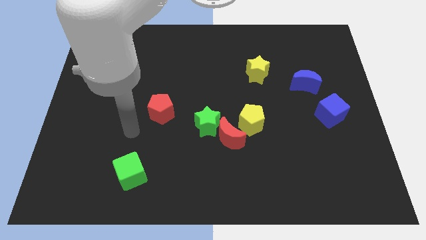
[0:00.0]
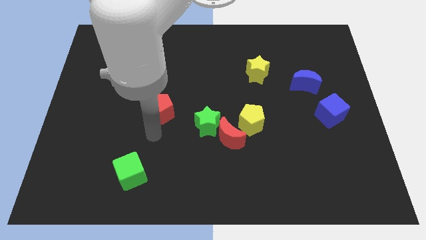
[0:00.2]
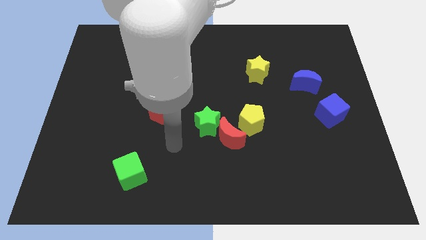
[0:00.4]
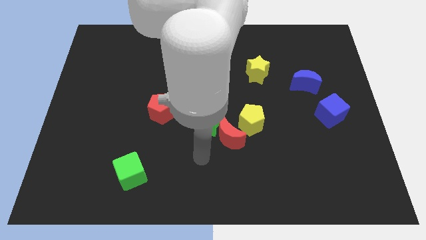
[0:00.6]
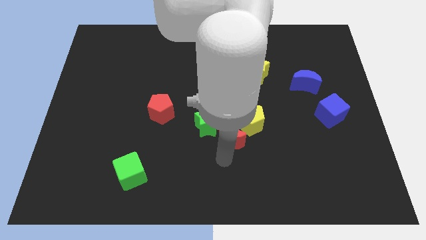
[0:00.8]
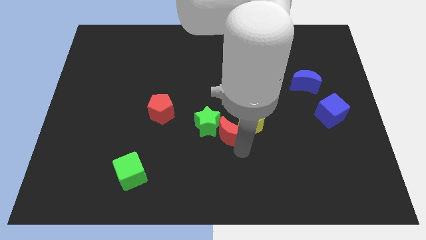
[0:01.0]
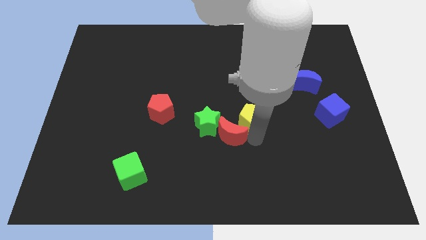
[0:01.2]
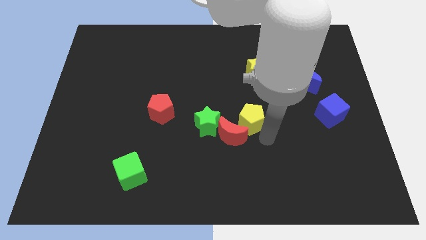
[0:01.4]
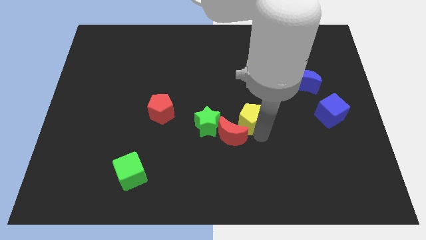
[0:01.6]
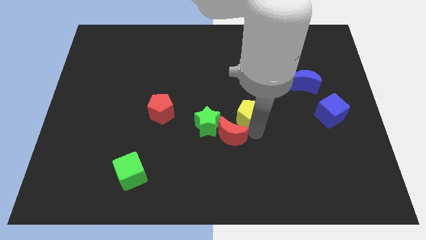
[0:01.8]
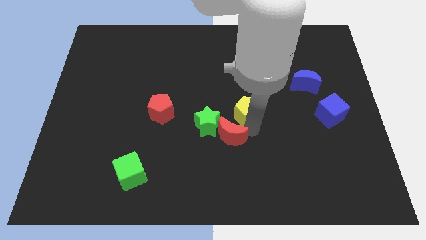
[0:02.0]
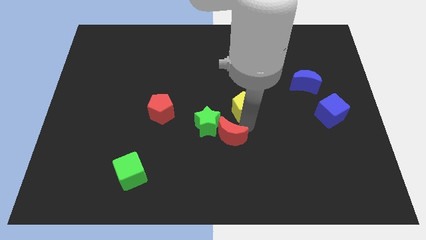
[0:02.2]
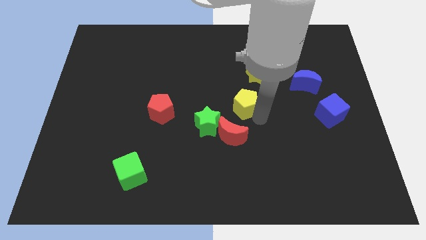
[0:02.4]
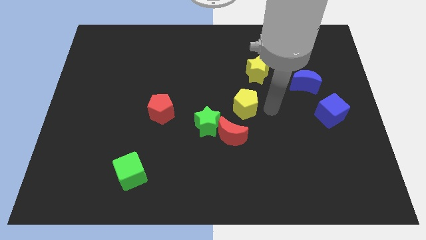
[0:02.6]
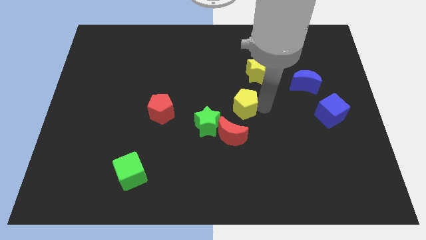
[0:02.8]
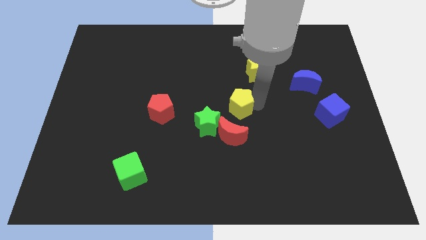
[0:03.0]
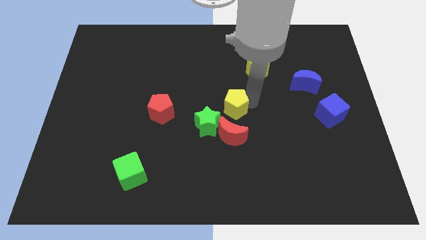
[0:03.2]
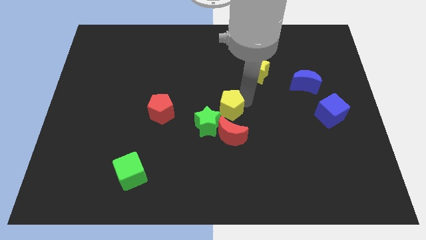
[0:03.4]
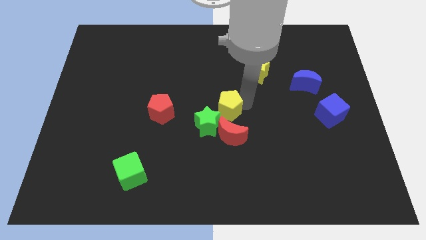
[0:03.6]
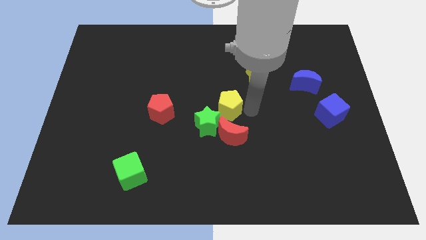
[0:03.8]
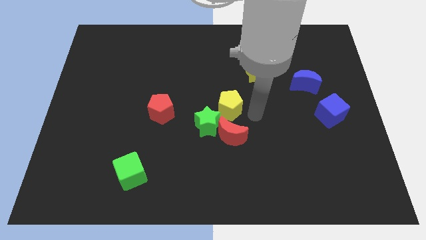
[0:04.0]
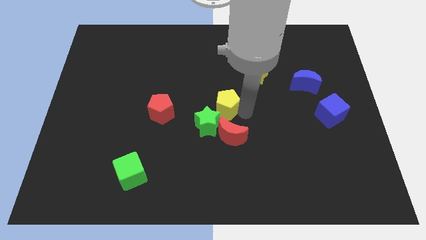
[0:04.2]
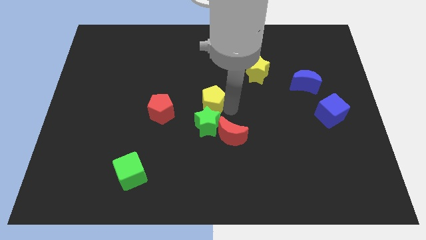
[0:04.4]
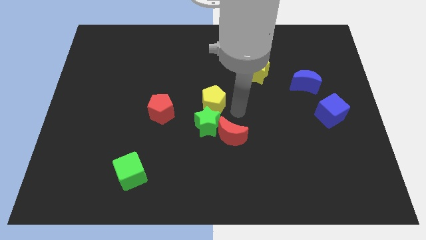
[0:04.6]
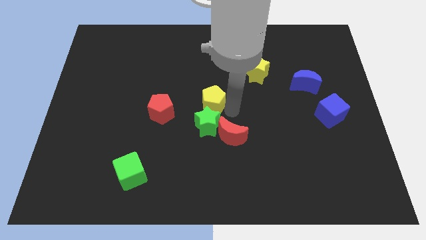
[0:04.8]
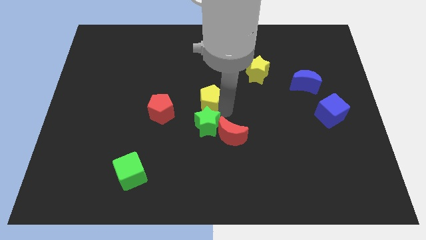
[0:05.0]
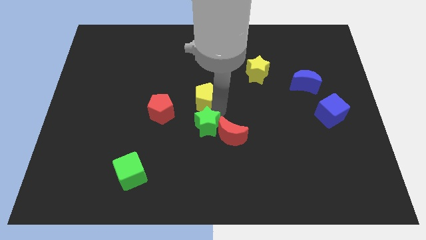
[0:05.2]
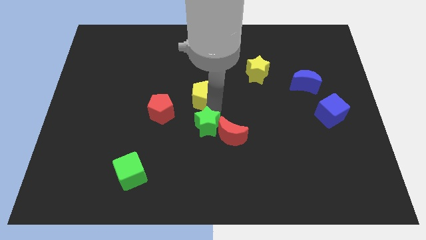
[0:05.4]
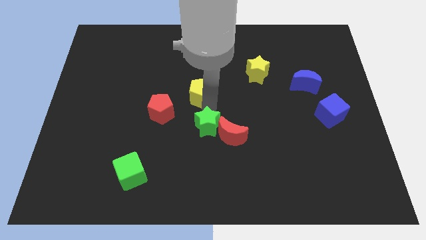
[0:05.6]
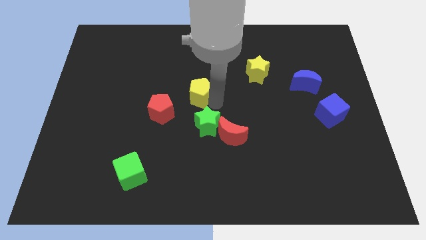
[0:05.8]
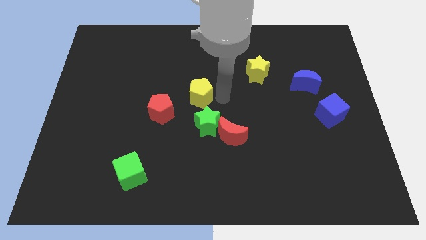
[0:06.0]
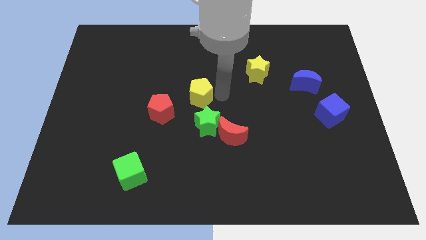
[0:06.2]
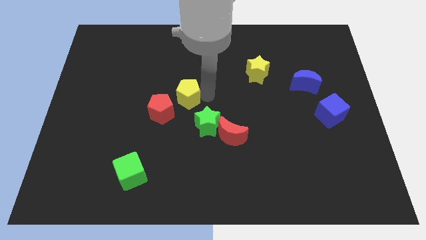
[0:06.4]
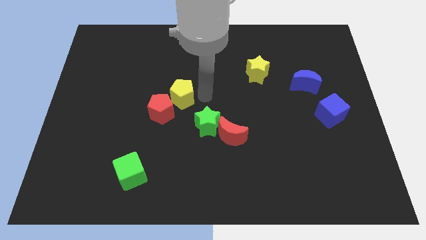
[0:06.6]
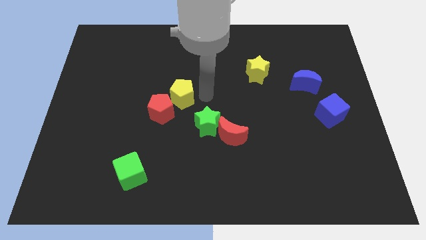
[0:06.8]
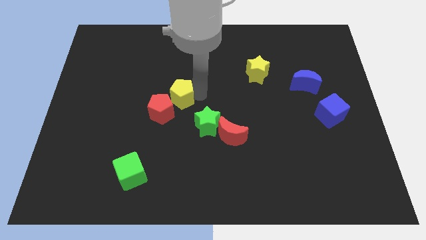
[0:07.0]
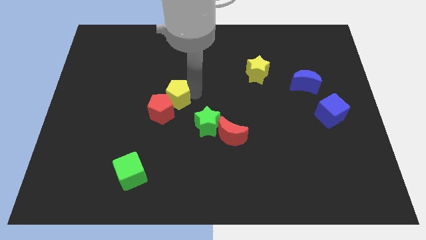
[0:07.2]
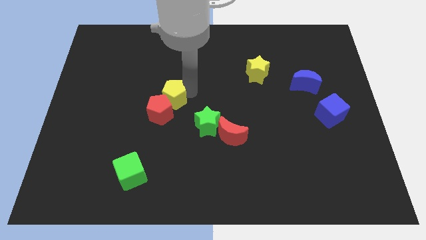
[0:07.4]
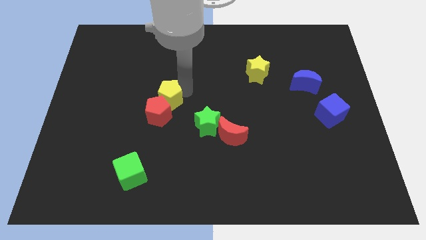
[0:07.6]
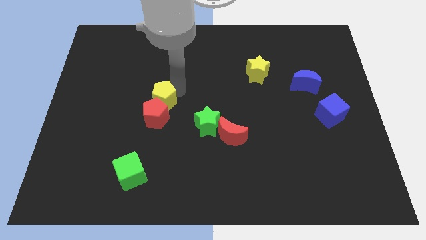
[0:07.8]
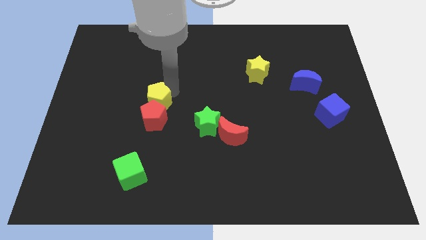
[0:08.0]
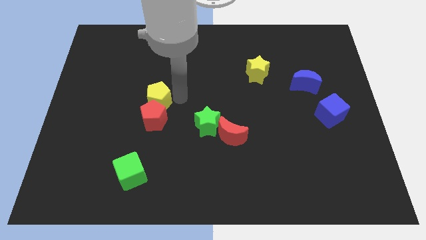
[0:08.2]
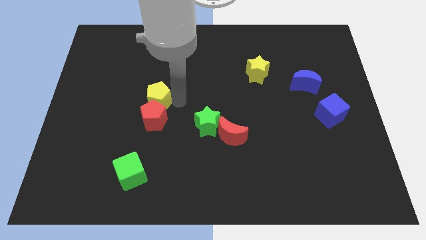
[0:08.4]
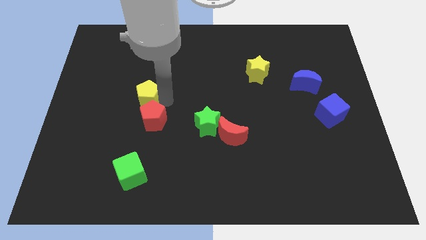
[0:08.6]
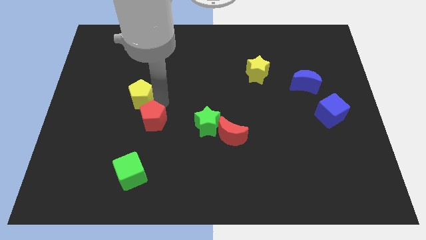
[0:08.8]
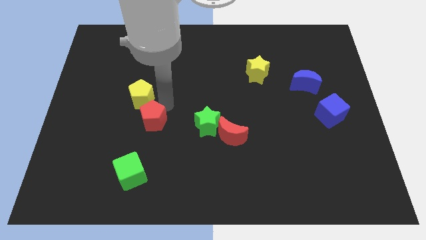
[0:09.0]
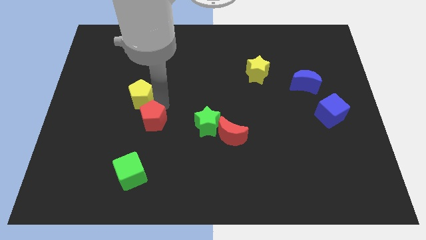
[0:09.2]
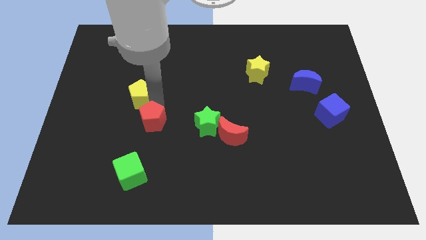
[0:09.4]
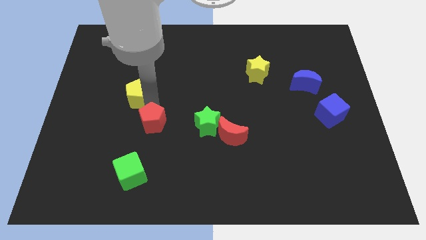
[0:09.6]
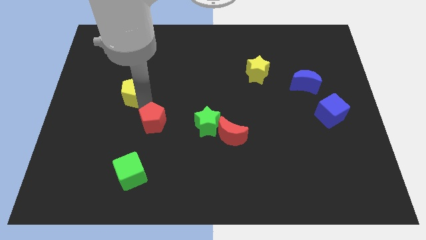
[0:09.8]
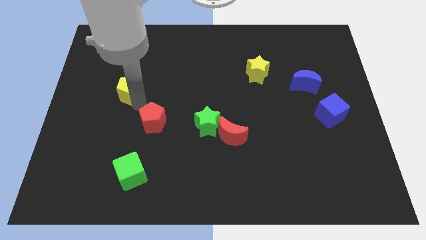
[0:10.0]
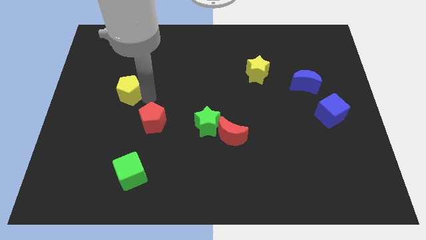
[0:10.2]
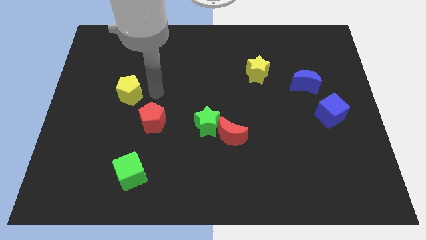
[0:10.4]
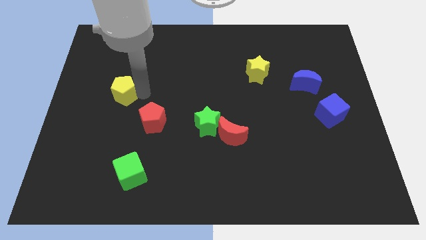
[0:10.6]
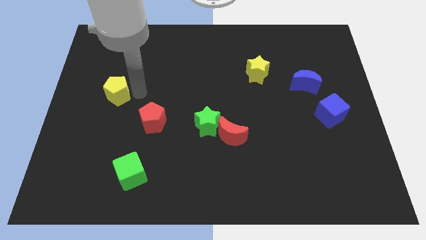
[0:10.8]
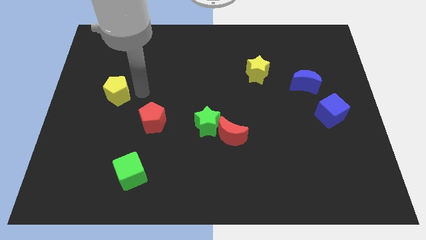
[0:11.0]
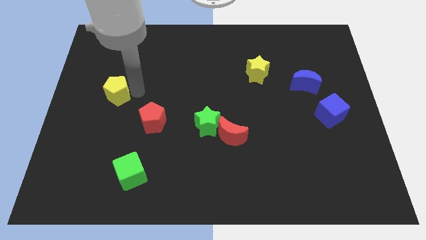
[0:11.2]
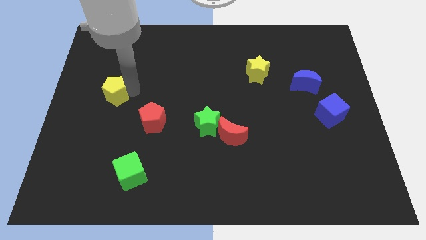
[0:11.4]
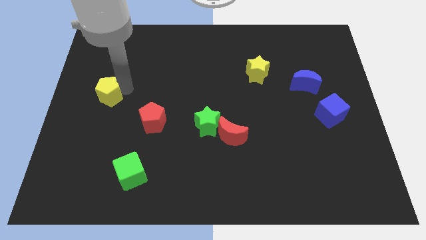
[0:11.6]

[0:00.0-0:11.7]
move the yellow pentagon to the center left
